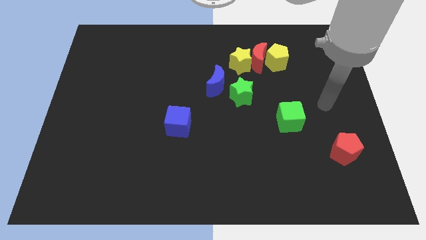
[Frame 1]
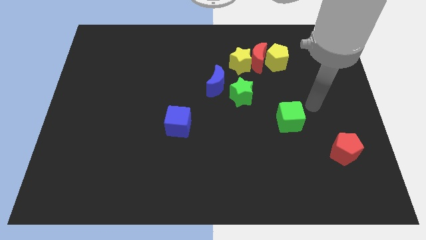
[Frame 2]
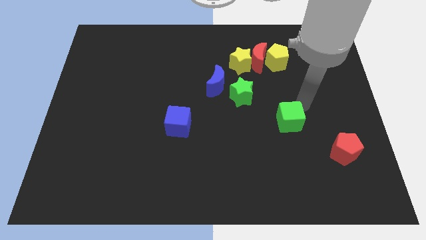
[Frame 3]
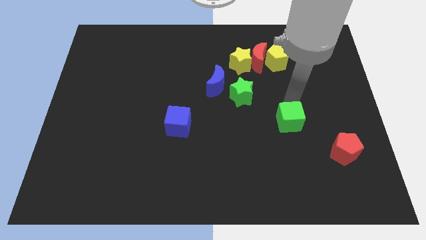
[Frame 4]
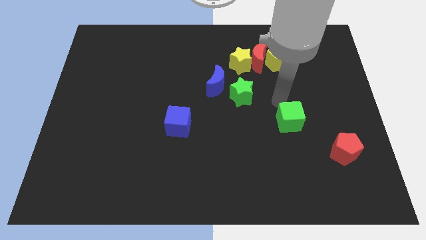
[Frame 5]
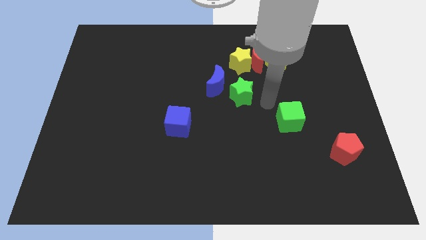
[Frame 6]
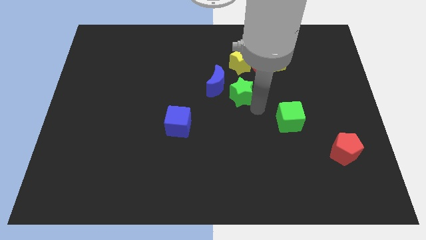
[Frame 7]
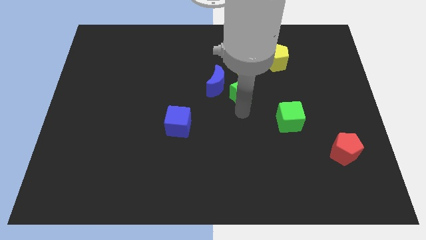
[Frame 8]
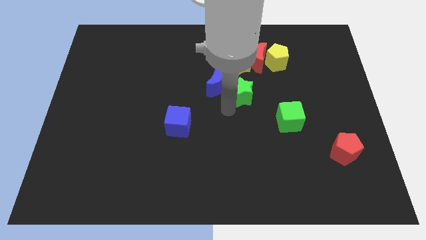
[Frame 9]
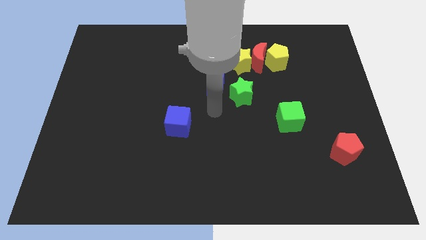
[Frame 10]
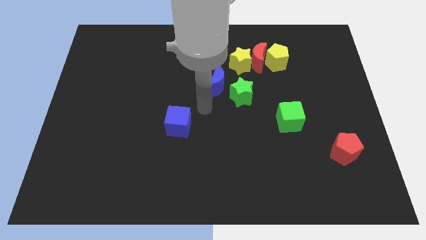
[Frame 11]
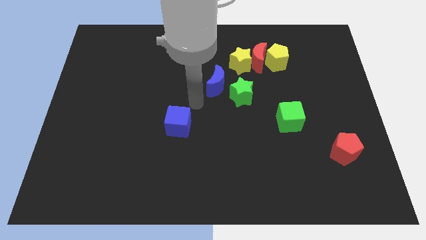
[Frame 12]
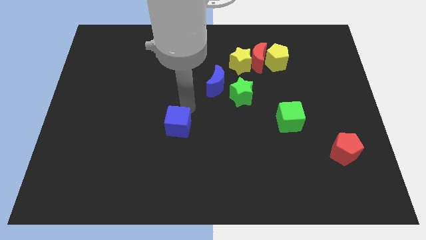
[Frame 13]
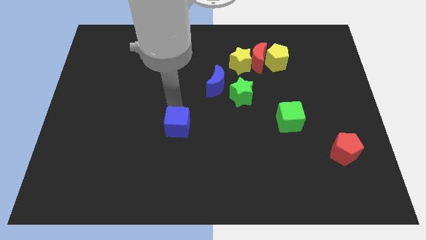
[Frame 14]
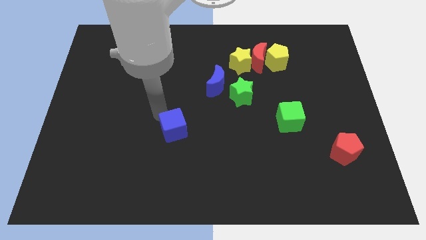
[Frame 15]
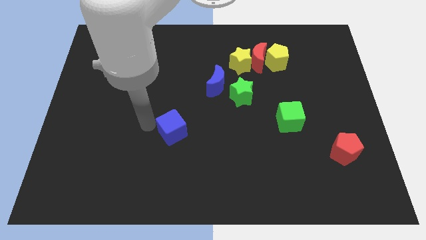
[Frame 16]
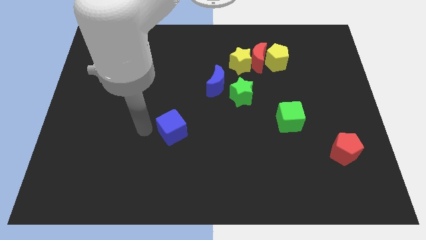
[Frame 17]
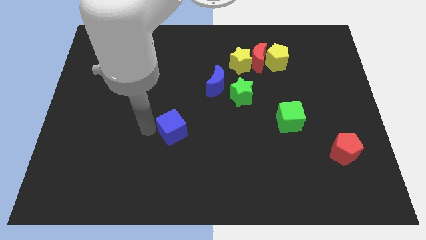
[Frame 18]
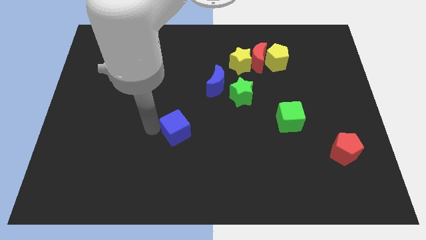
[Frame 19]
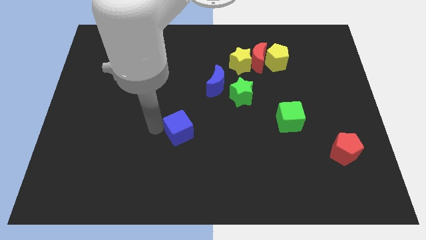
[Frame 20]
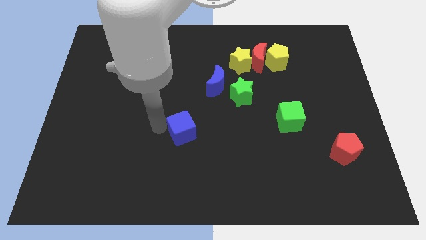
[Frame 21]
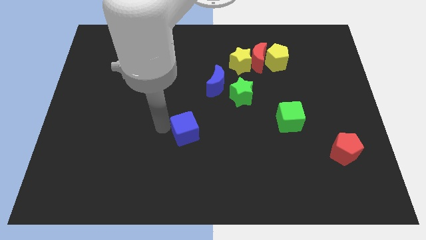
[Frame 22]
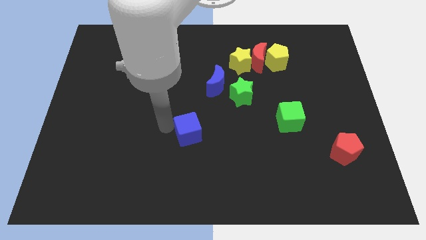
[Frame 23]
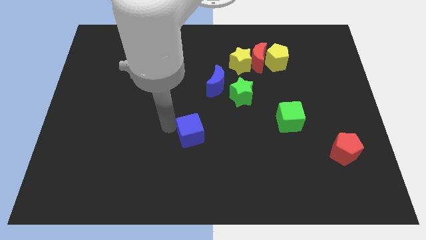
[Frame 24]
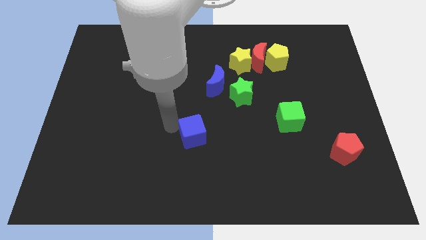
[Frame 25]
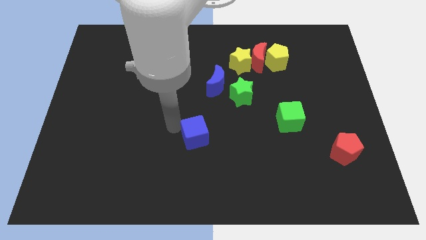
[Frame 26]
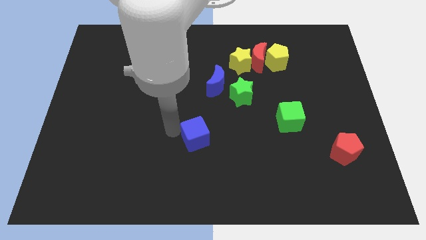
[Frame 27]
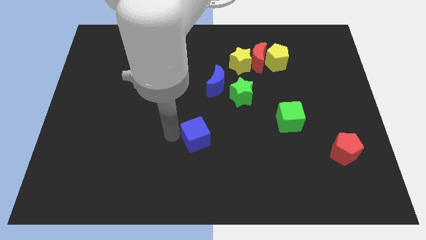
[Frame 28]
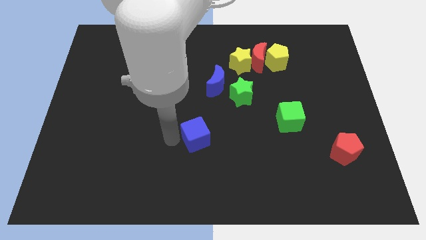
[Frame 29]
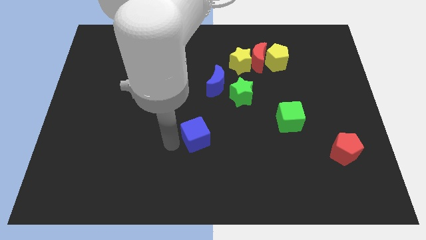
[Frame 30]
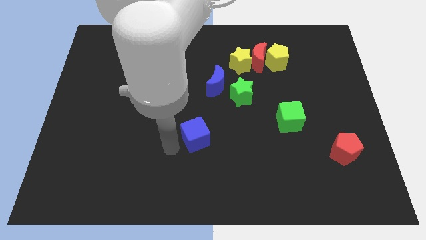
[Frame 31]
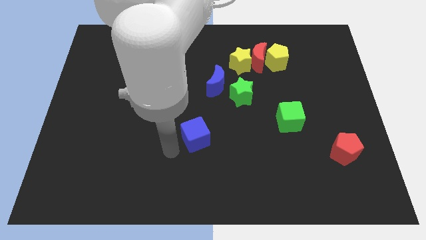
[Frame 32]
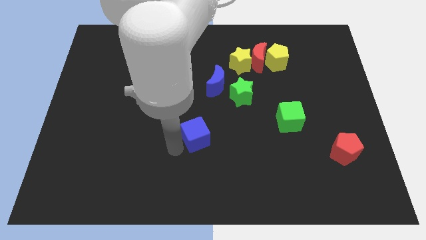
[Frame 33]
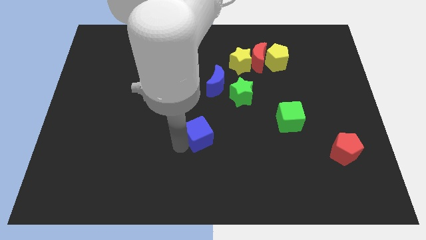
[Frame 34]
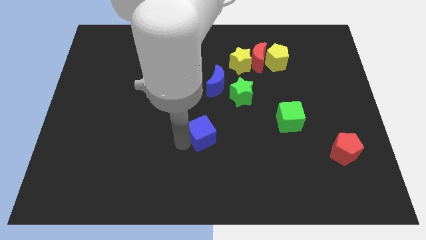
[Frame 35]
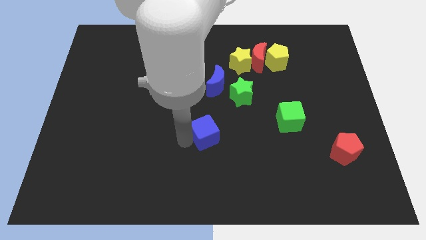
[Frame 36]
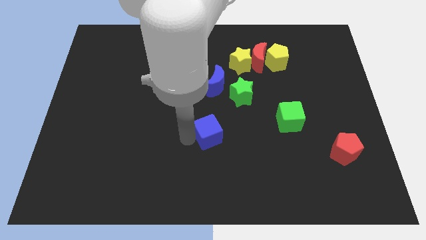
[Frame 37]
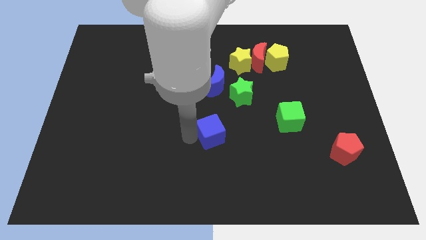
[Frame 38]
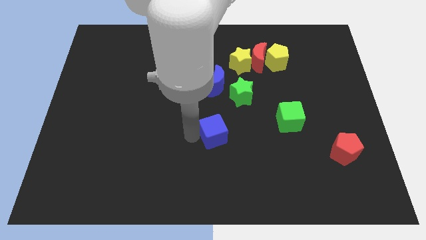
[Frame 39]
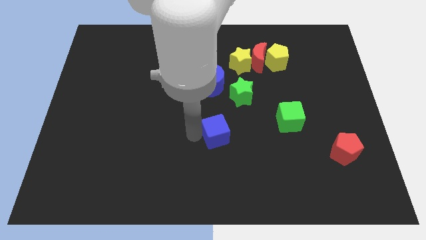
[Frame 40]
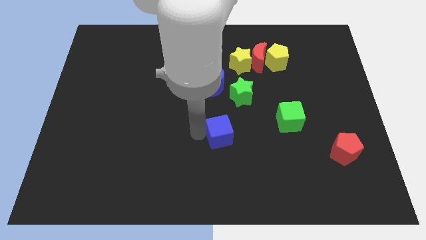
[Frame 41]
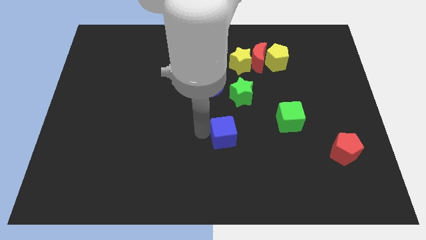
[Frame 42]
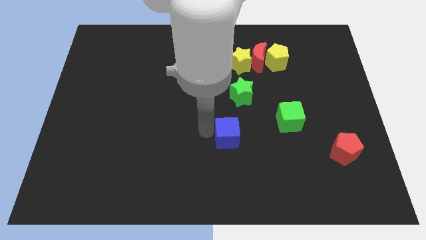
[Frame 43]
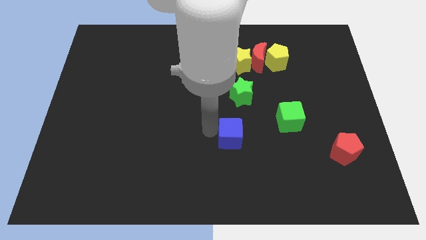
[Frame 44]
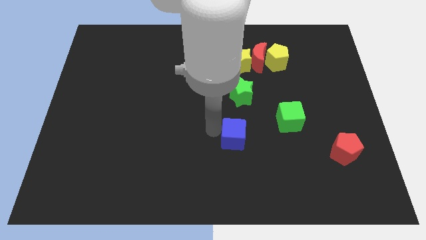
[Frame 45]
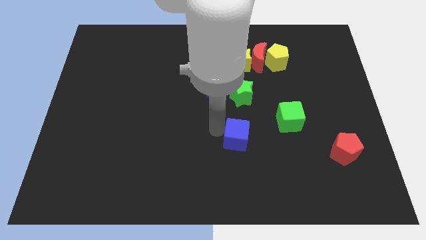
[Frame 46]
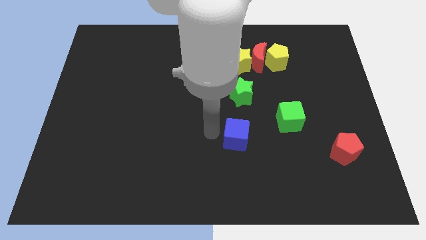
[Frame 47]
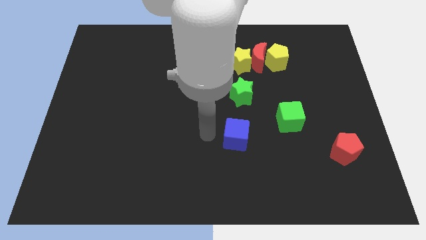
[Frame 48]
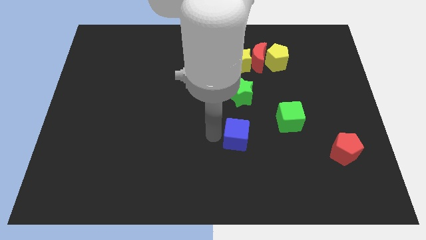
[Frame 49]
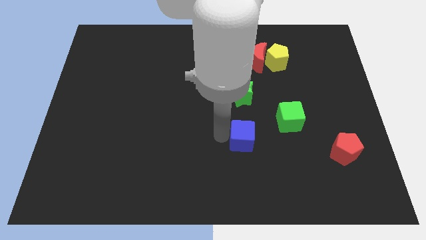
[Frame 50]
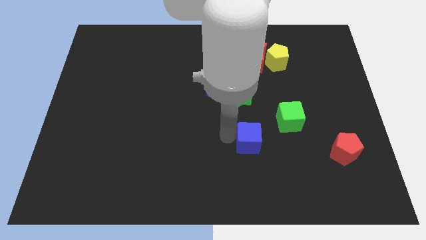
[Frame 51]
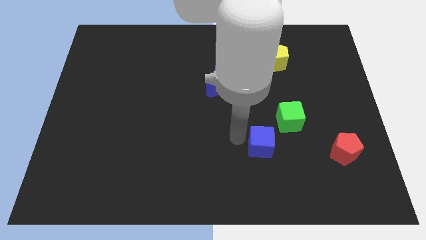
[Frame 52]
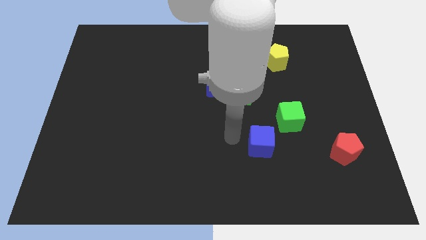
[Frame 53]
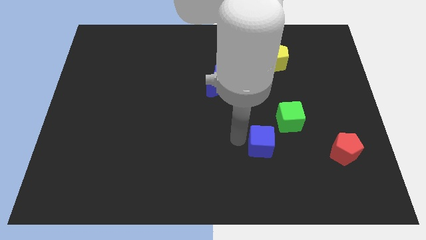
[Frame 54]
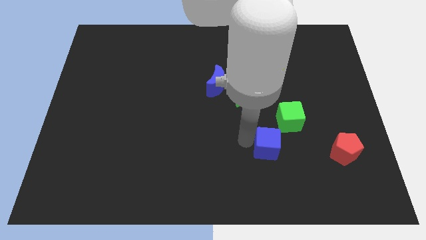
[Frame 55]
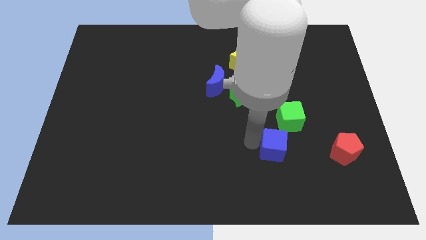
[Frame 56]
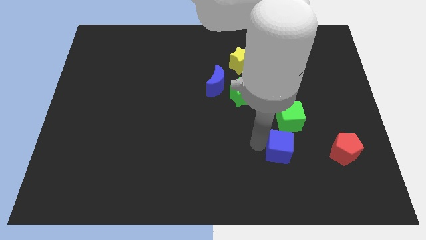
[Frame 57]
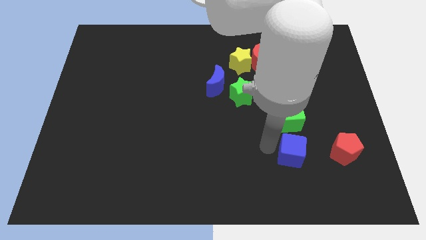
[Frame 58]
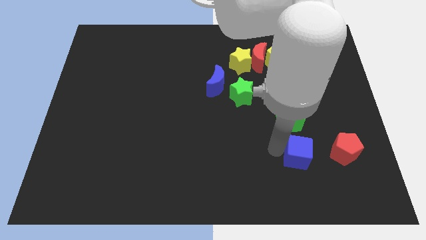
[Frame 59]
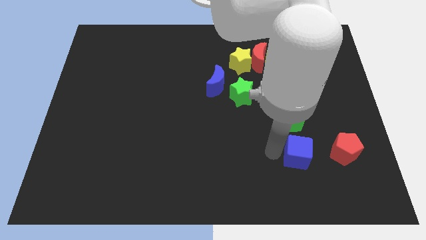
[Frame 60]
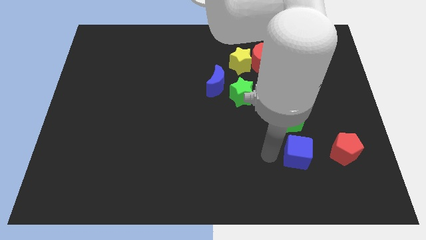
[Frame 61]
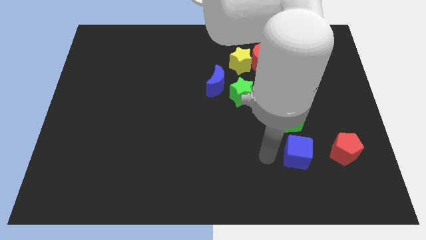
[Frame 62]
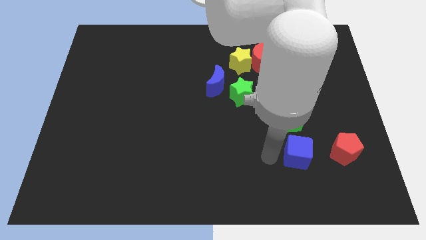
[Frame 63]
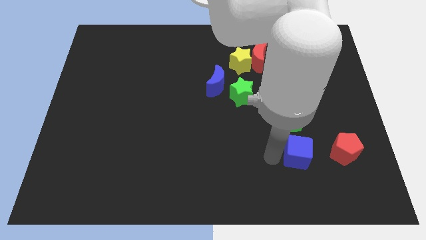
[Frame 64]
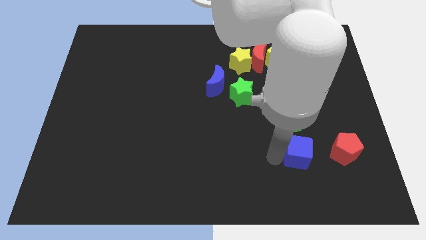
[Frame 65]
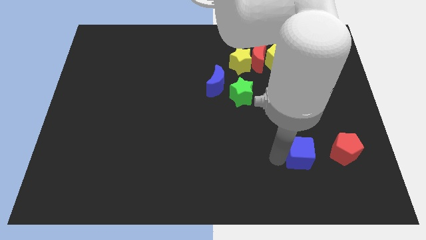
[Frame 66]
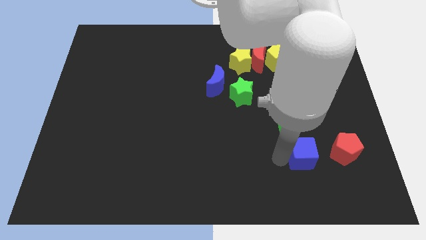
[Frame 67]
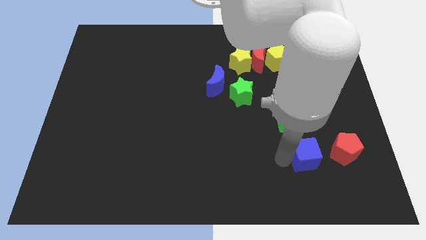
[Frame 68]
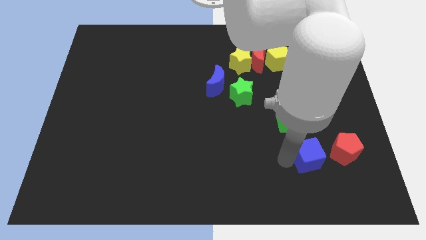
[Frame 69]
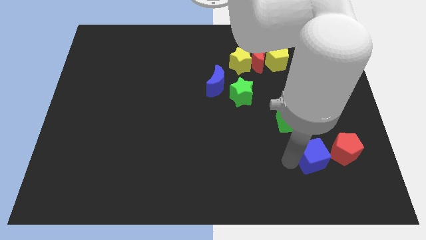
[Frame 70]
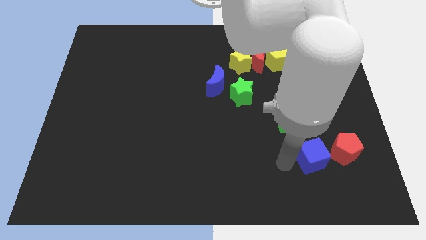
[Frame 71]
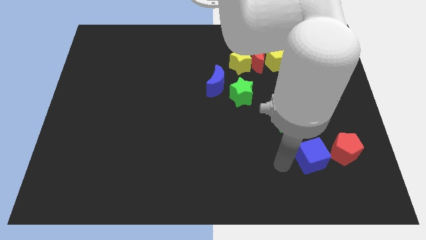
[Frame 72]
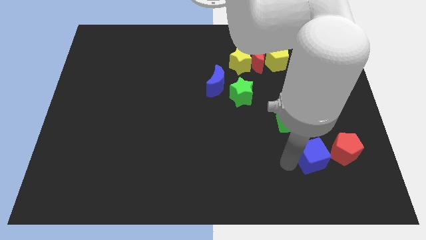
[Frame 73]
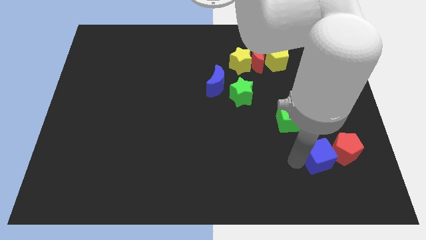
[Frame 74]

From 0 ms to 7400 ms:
put the blue cube towards the red pentagon

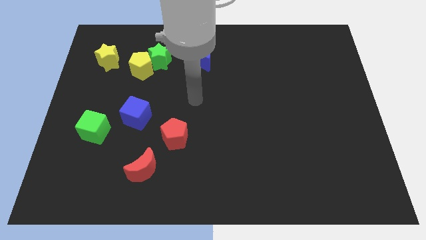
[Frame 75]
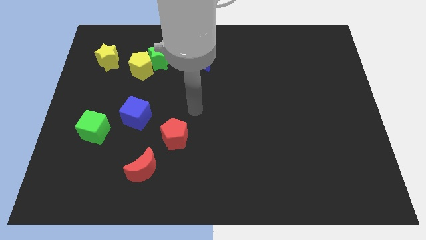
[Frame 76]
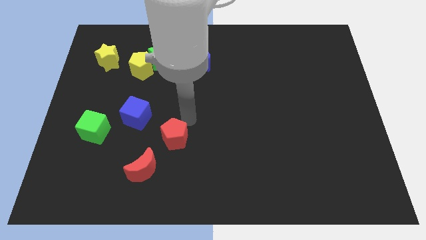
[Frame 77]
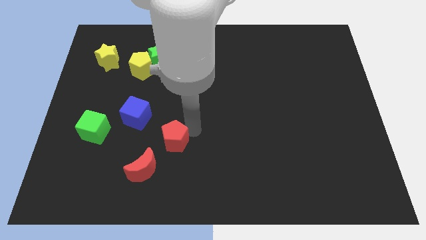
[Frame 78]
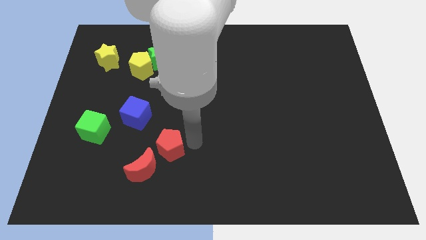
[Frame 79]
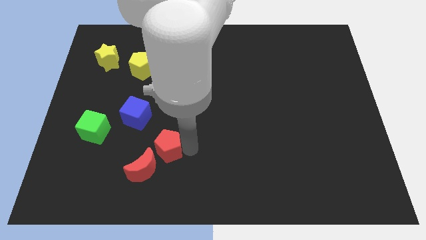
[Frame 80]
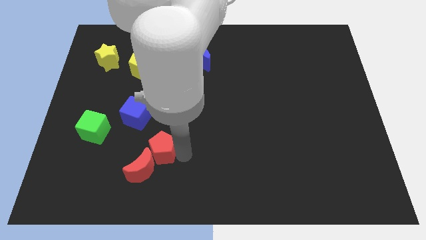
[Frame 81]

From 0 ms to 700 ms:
slide the red moon to the red pentagon
